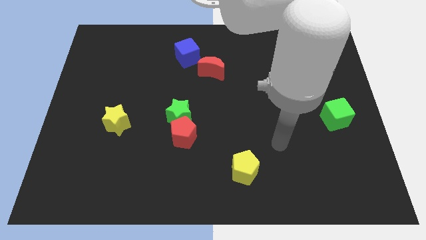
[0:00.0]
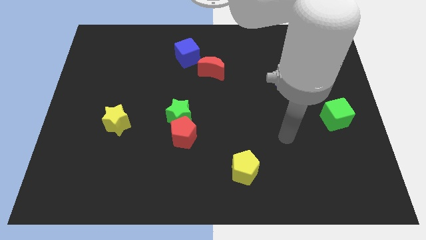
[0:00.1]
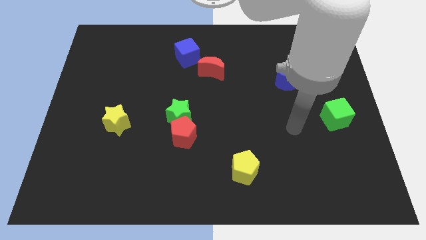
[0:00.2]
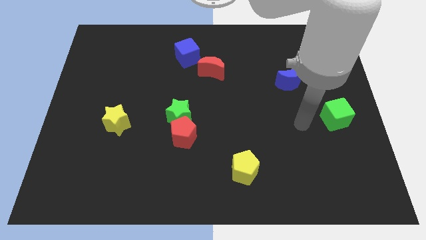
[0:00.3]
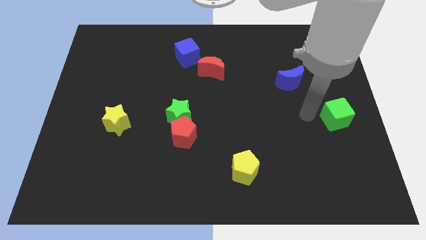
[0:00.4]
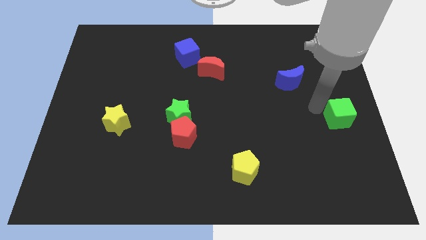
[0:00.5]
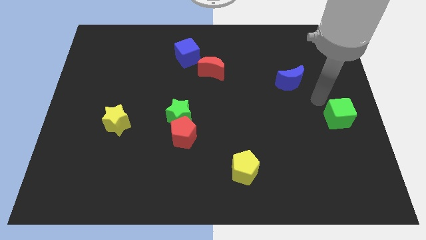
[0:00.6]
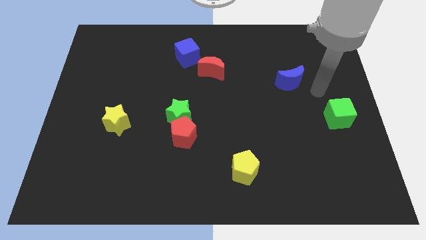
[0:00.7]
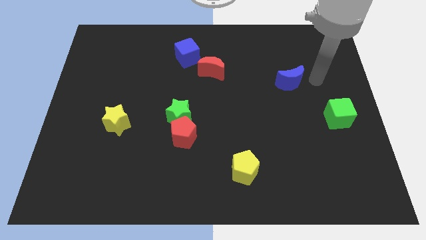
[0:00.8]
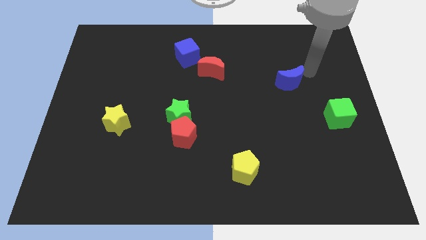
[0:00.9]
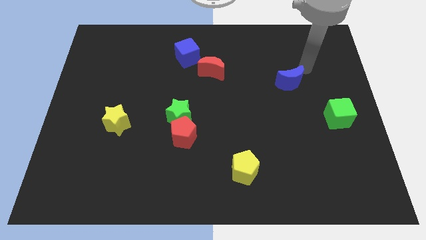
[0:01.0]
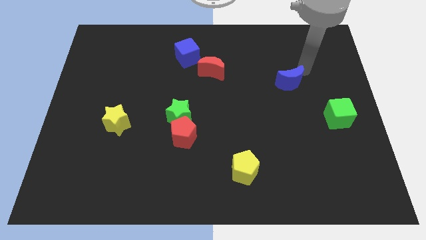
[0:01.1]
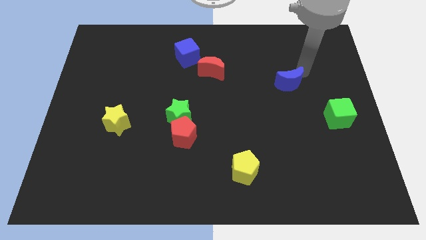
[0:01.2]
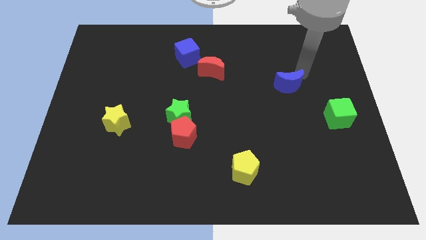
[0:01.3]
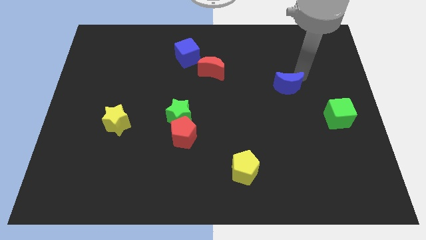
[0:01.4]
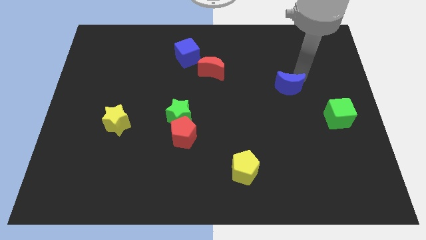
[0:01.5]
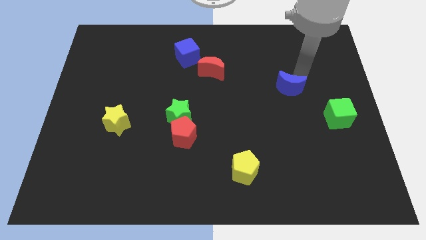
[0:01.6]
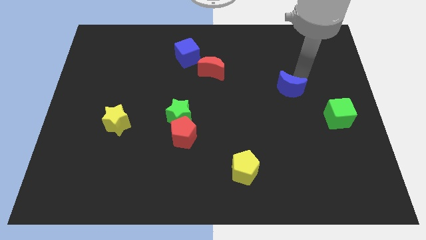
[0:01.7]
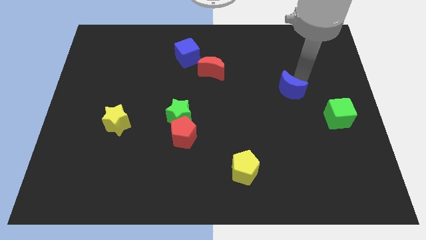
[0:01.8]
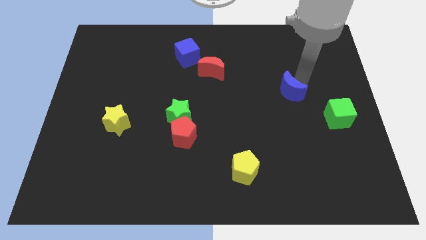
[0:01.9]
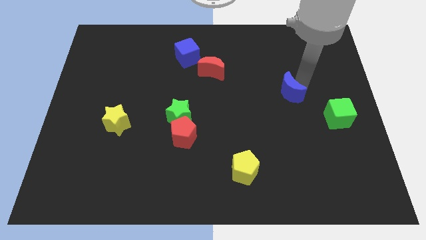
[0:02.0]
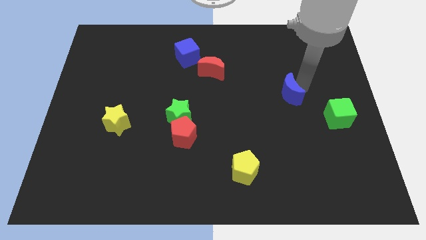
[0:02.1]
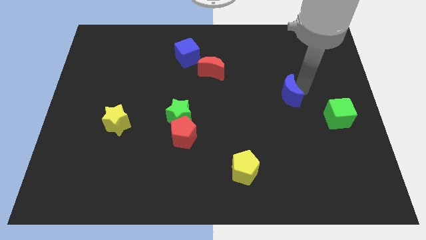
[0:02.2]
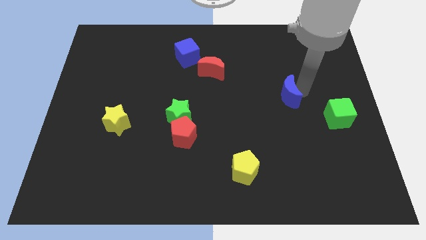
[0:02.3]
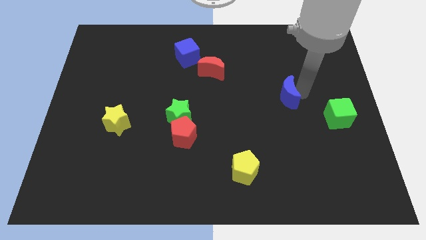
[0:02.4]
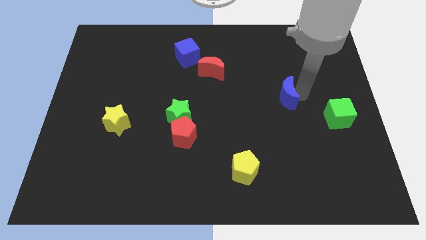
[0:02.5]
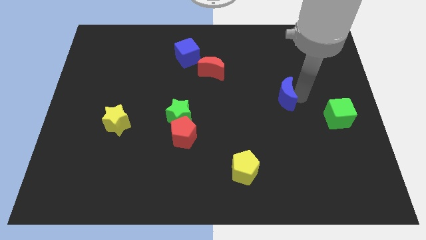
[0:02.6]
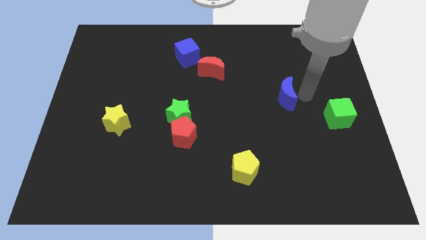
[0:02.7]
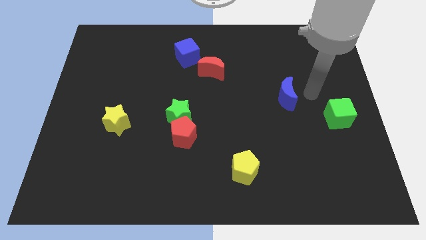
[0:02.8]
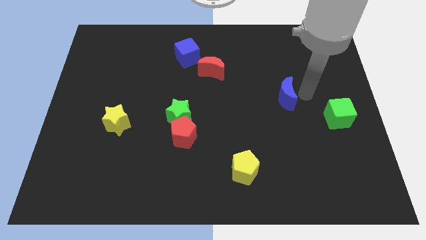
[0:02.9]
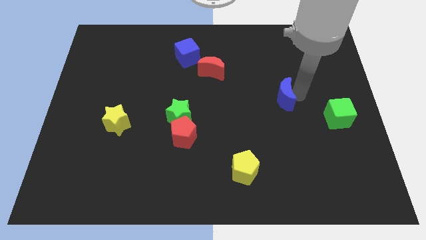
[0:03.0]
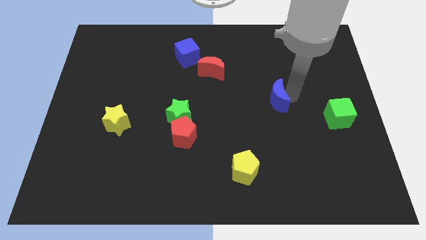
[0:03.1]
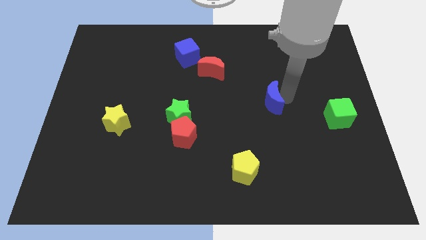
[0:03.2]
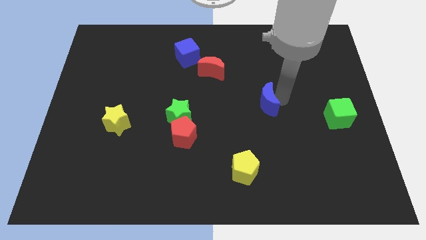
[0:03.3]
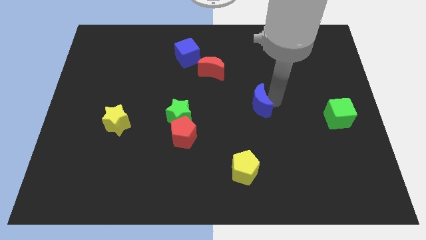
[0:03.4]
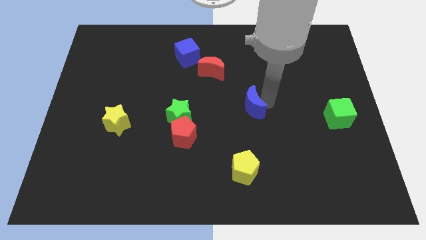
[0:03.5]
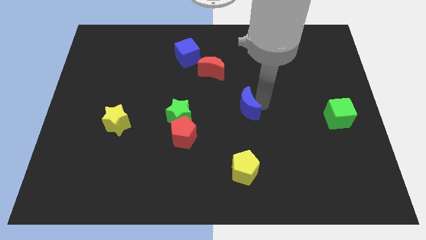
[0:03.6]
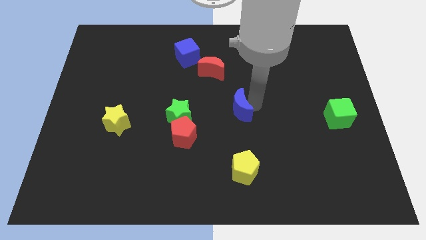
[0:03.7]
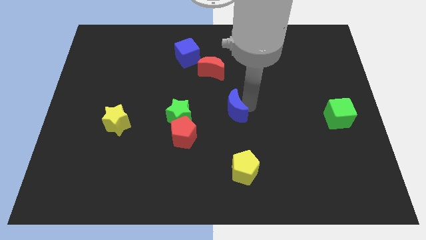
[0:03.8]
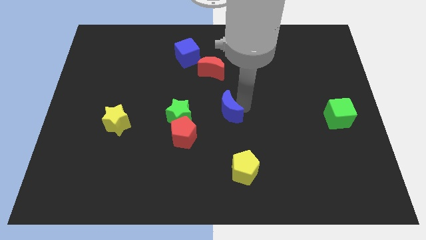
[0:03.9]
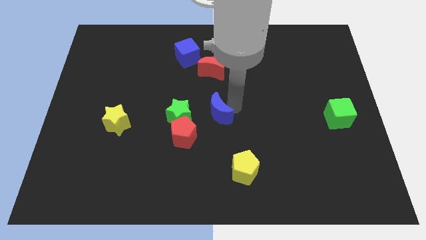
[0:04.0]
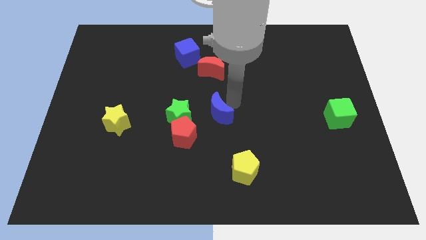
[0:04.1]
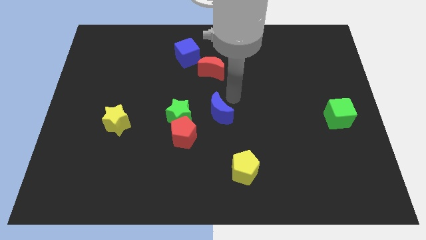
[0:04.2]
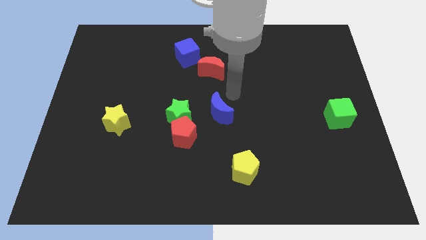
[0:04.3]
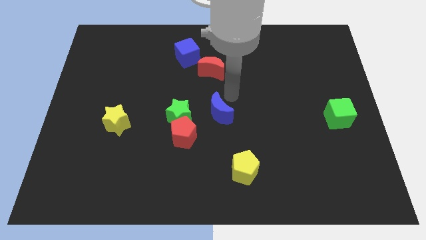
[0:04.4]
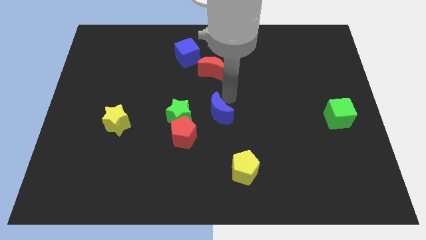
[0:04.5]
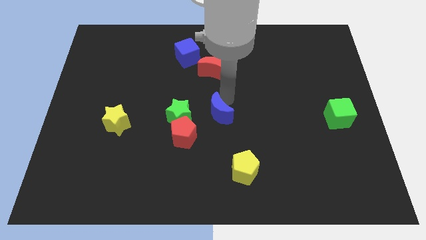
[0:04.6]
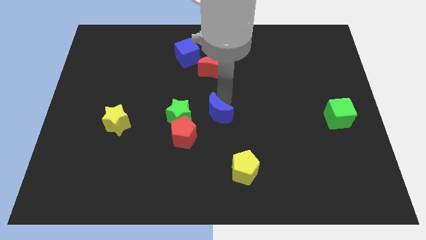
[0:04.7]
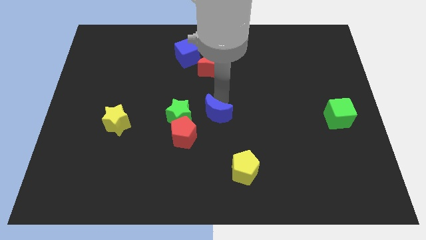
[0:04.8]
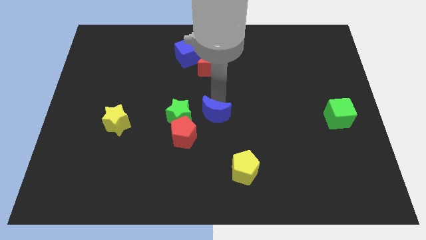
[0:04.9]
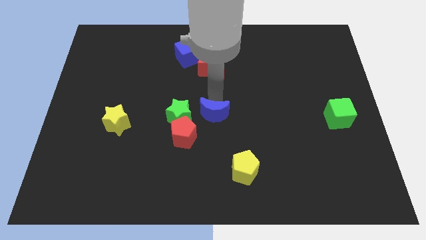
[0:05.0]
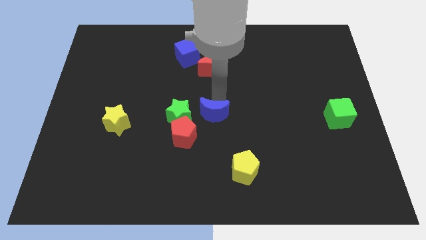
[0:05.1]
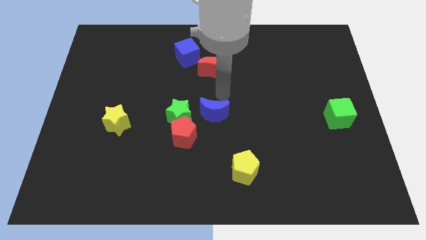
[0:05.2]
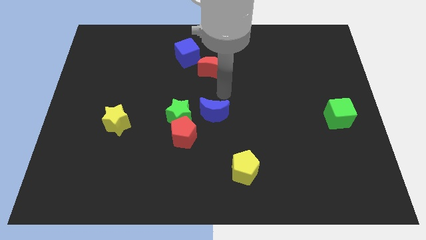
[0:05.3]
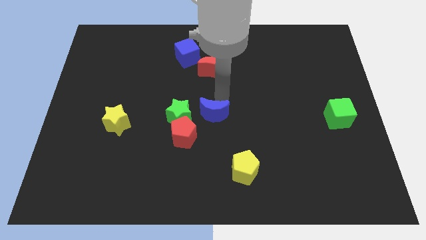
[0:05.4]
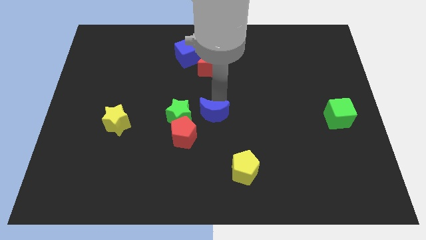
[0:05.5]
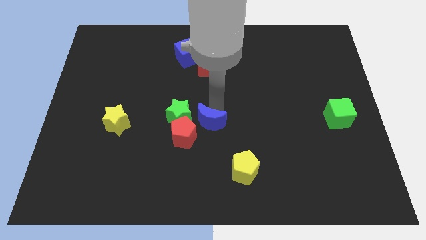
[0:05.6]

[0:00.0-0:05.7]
slide the blue moon to the bottom right of the green star

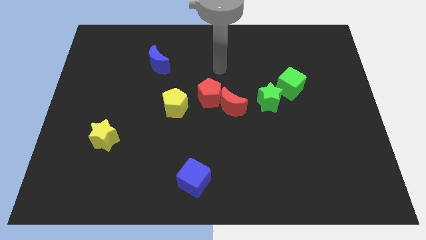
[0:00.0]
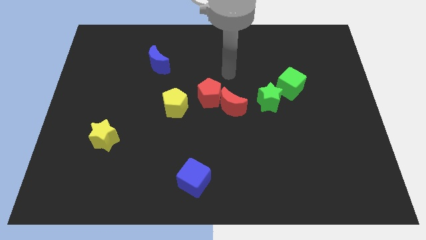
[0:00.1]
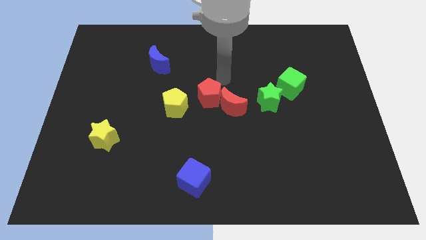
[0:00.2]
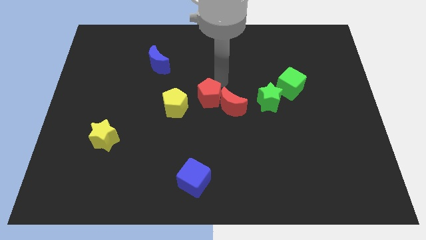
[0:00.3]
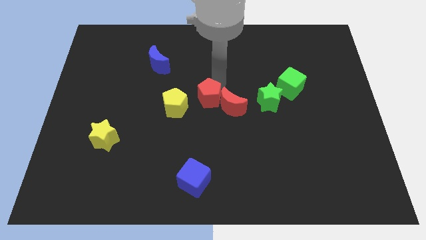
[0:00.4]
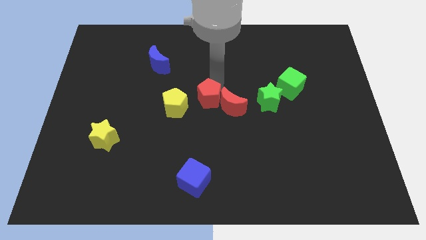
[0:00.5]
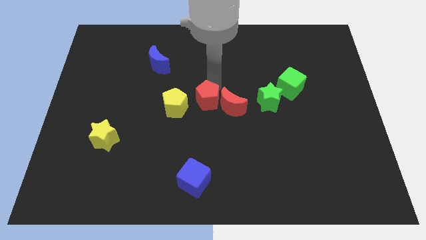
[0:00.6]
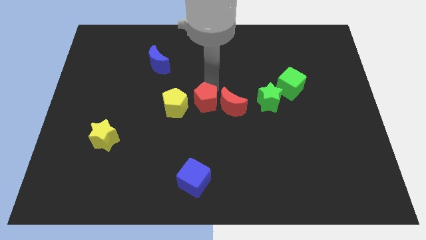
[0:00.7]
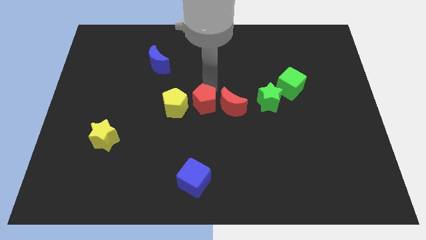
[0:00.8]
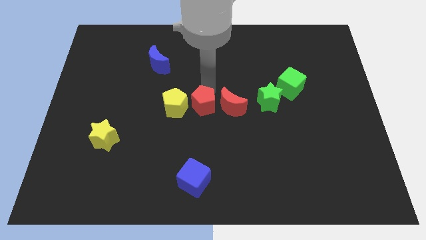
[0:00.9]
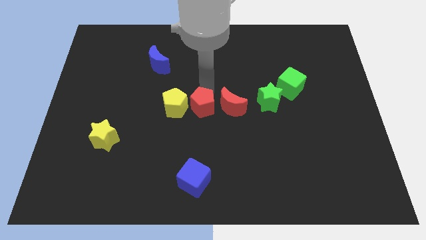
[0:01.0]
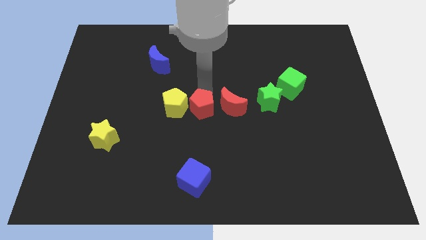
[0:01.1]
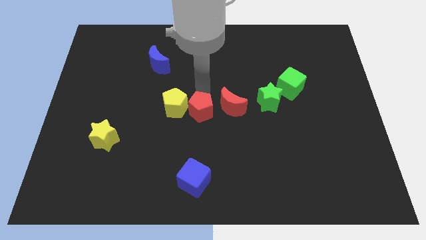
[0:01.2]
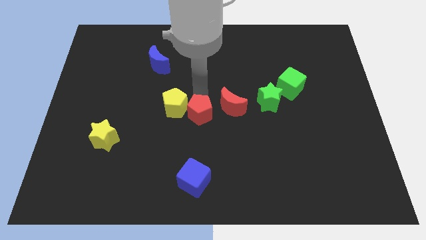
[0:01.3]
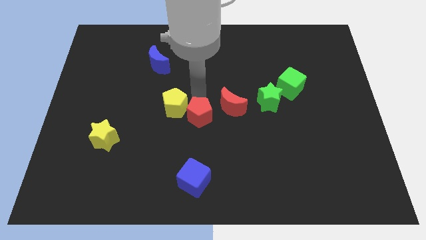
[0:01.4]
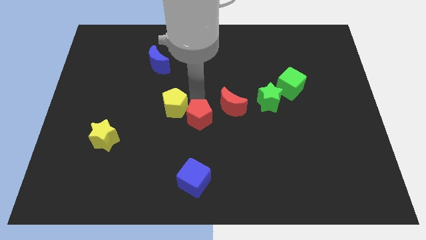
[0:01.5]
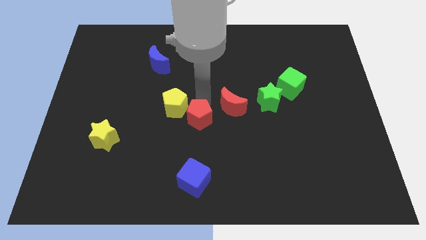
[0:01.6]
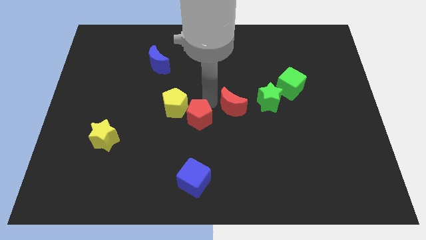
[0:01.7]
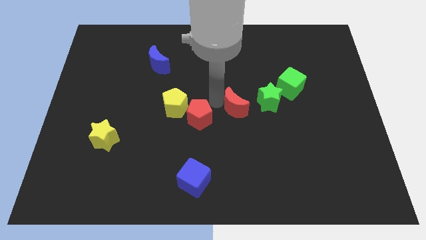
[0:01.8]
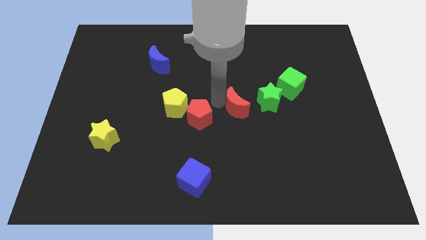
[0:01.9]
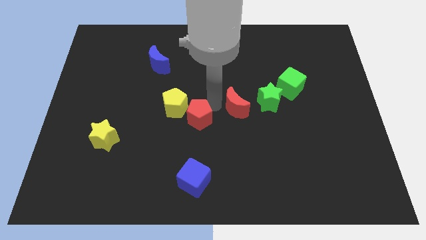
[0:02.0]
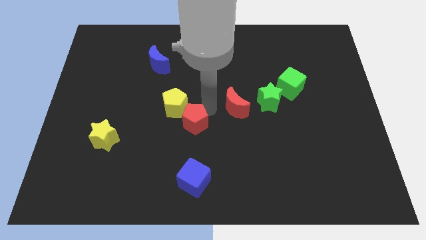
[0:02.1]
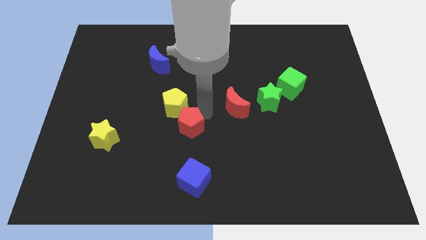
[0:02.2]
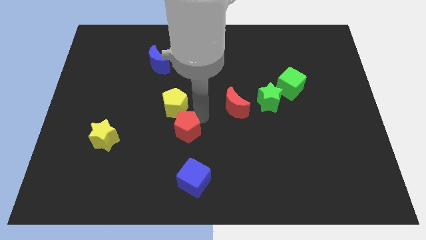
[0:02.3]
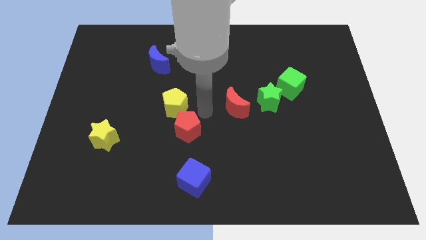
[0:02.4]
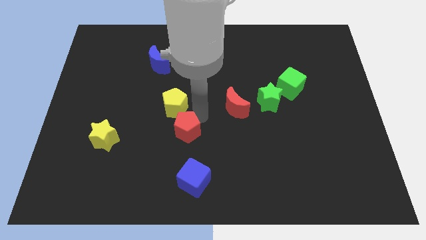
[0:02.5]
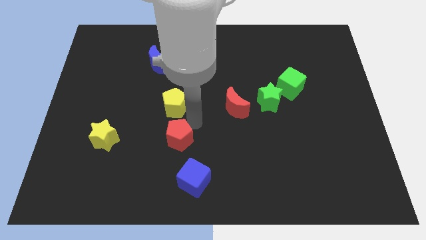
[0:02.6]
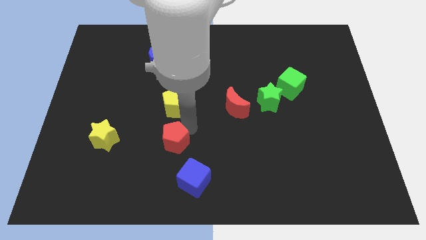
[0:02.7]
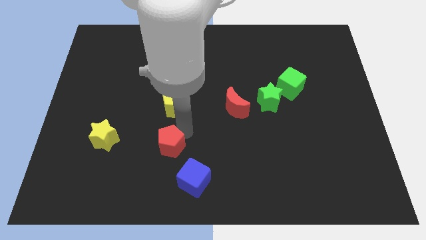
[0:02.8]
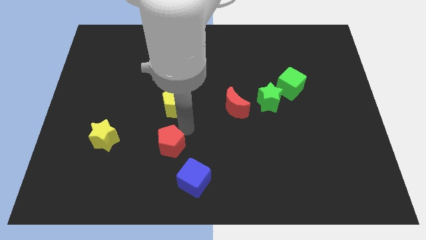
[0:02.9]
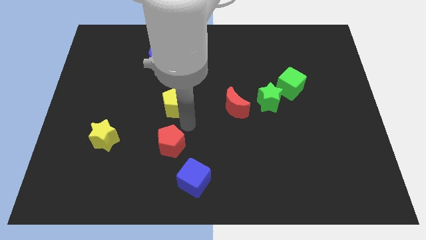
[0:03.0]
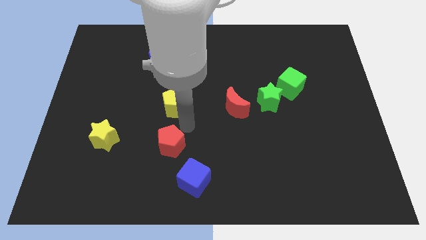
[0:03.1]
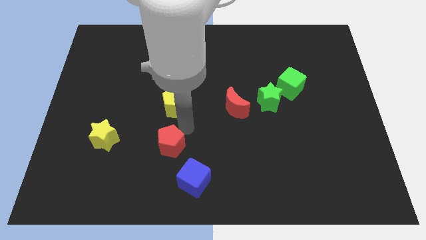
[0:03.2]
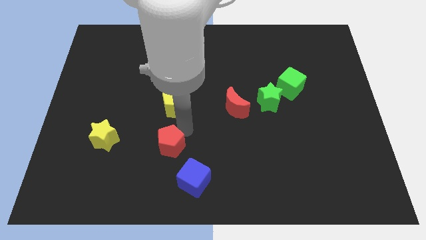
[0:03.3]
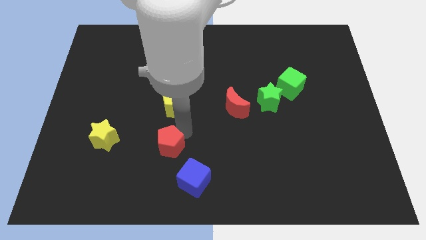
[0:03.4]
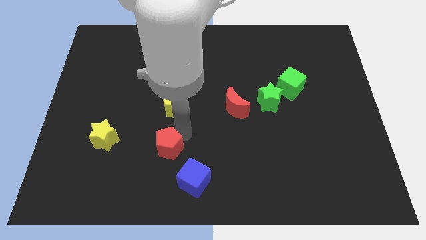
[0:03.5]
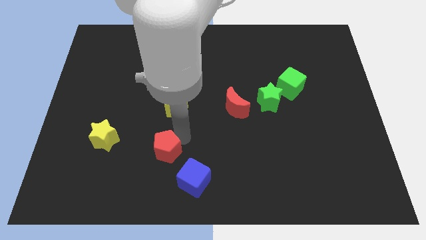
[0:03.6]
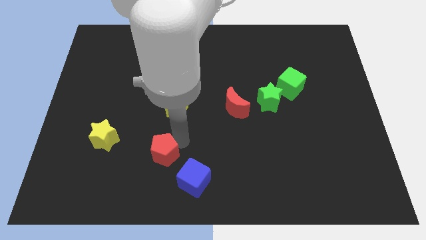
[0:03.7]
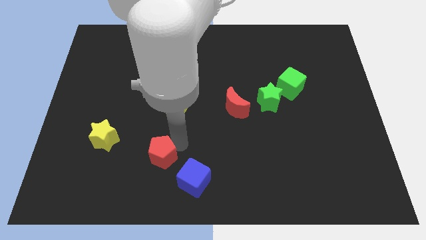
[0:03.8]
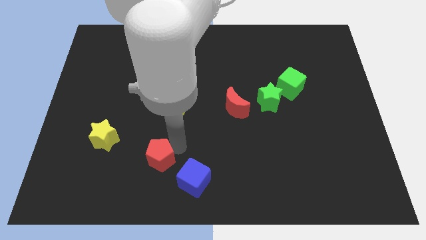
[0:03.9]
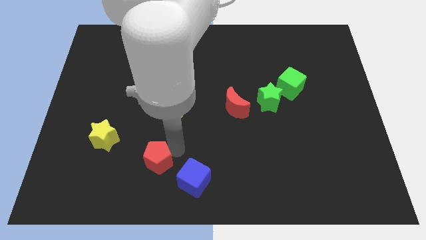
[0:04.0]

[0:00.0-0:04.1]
push the red pentagon just left of the blue cube
